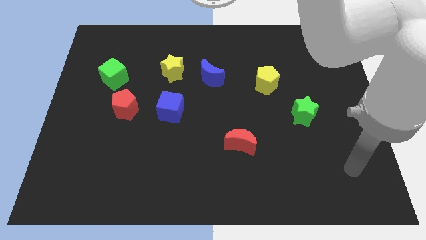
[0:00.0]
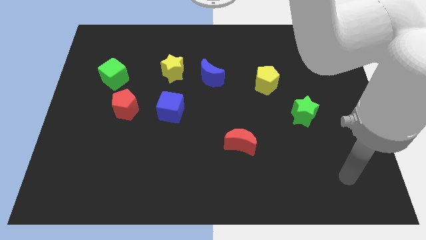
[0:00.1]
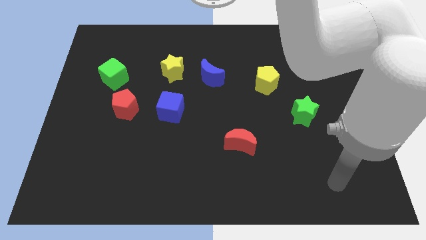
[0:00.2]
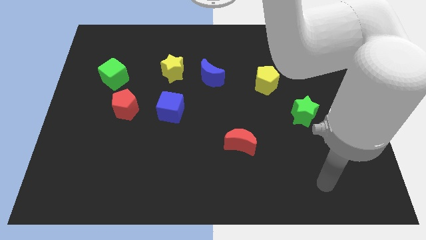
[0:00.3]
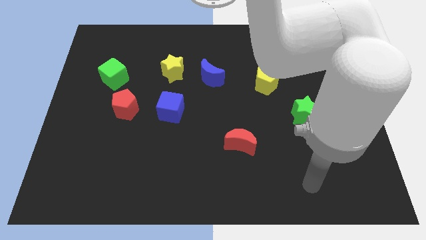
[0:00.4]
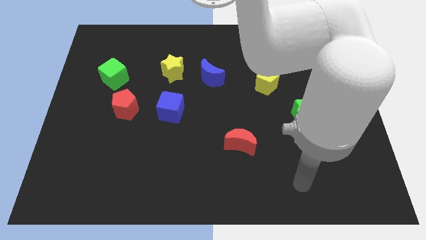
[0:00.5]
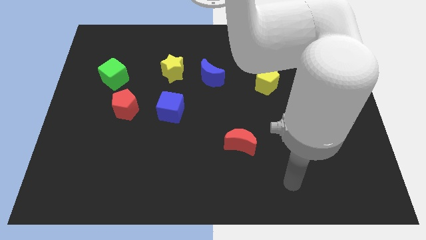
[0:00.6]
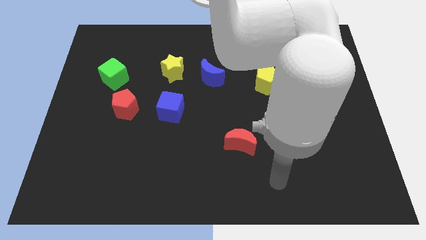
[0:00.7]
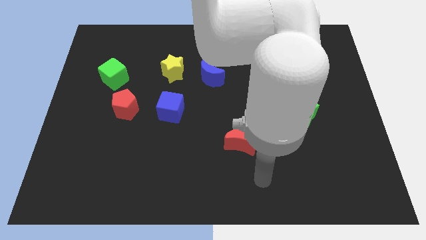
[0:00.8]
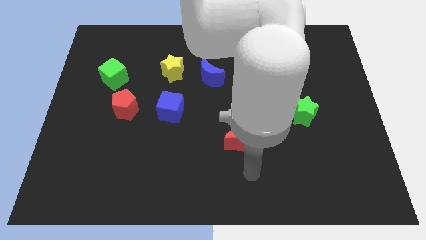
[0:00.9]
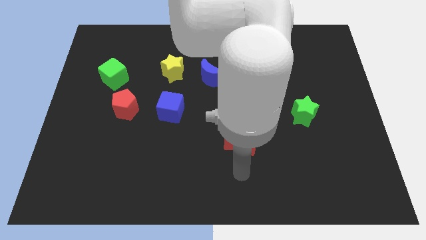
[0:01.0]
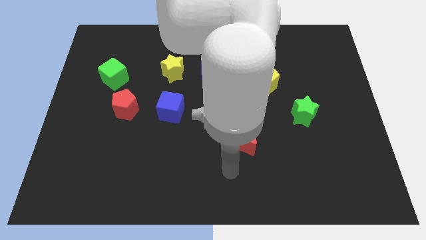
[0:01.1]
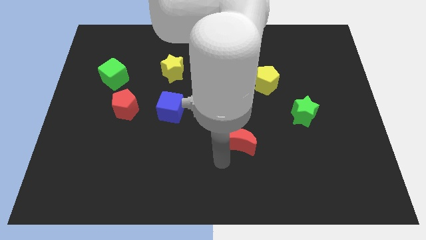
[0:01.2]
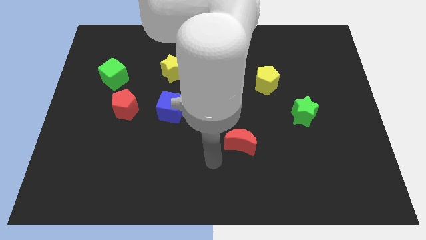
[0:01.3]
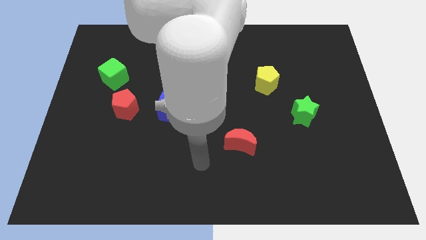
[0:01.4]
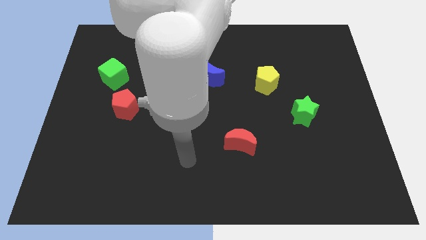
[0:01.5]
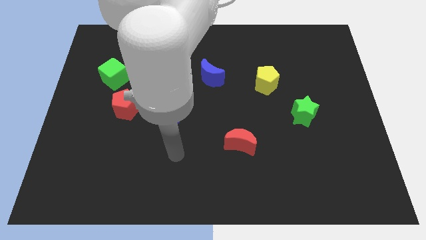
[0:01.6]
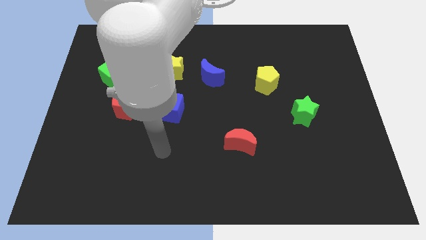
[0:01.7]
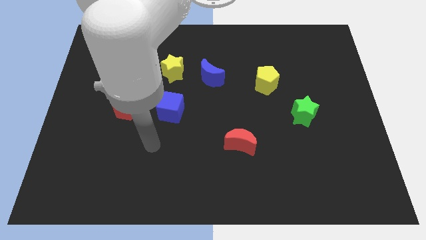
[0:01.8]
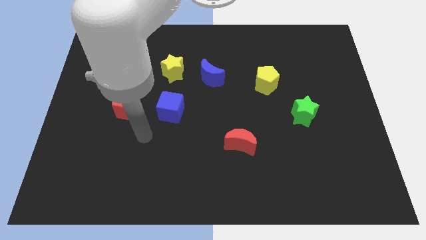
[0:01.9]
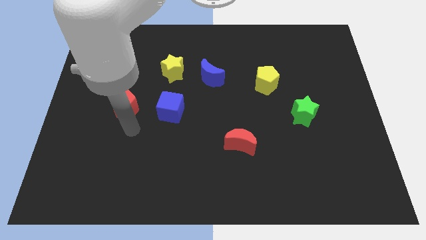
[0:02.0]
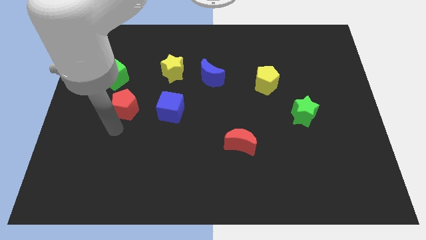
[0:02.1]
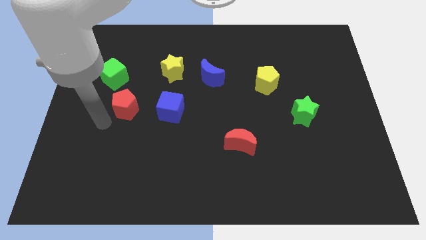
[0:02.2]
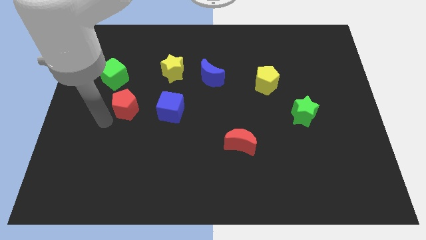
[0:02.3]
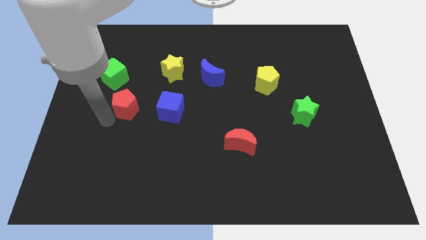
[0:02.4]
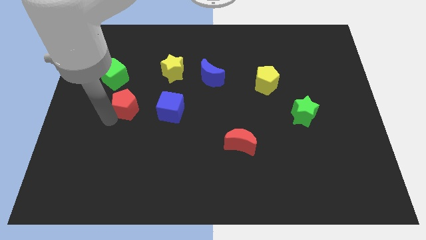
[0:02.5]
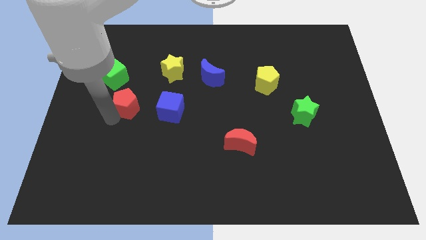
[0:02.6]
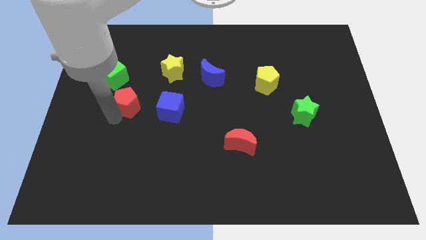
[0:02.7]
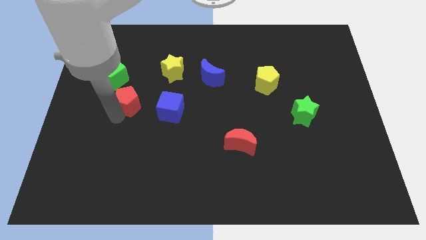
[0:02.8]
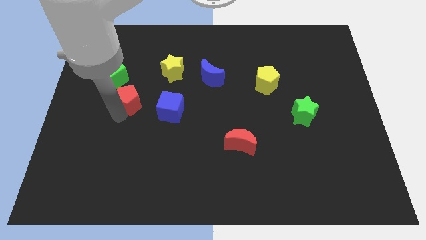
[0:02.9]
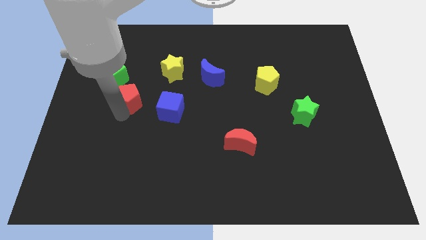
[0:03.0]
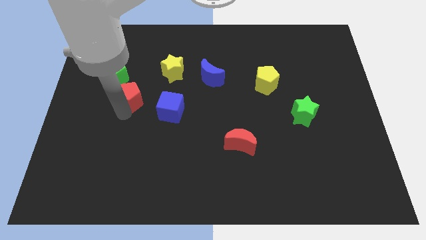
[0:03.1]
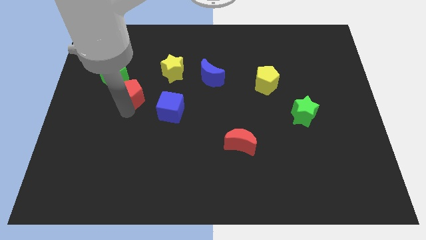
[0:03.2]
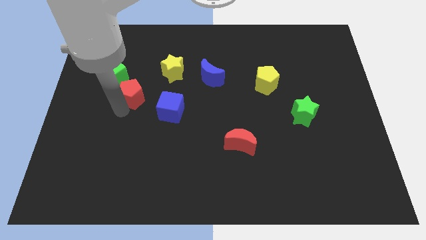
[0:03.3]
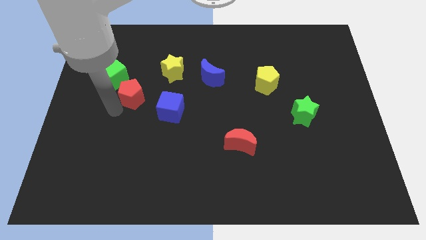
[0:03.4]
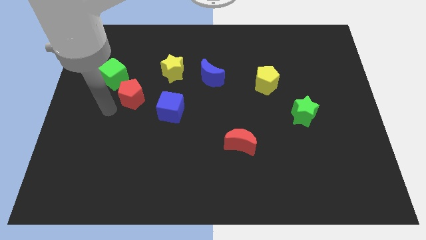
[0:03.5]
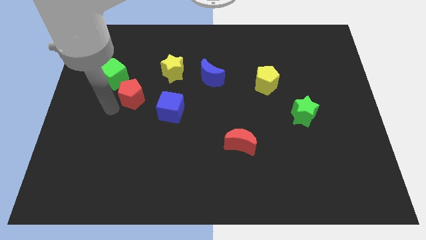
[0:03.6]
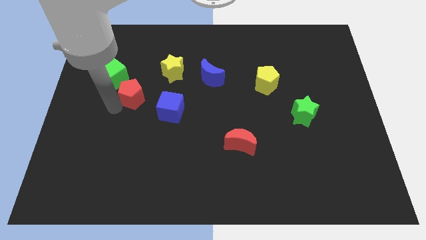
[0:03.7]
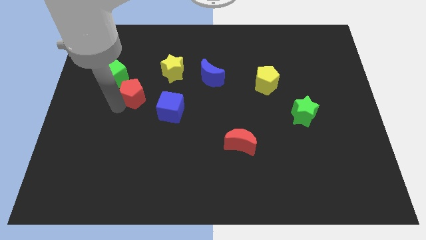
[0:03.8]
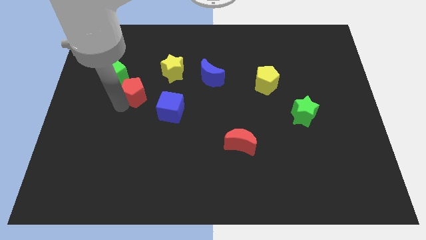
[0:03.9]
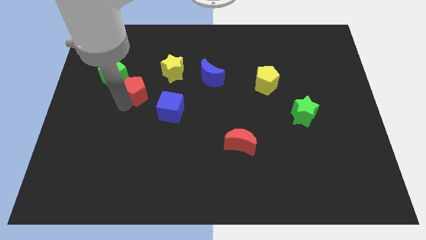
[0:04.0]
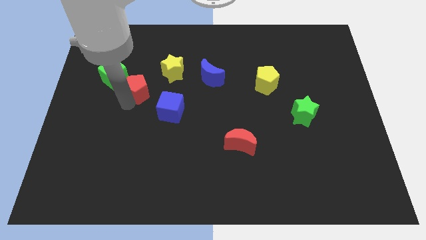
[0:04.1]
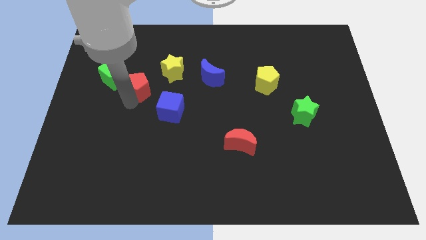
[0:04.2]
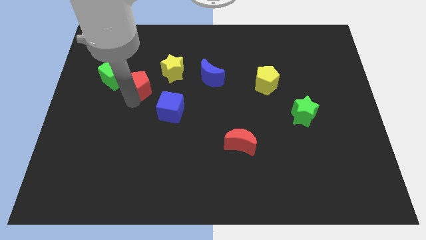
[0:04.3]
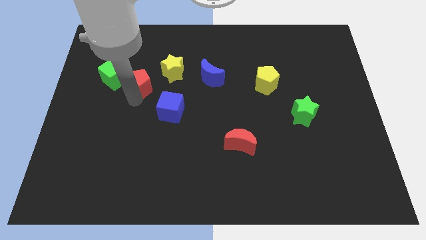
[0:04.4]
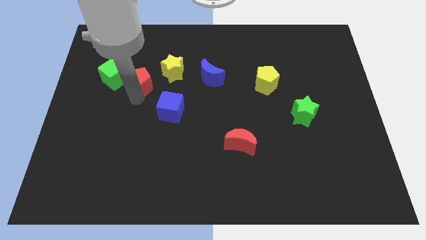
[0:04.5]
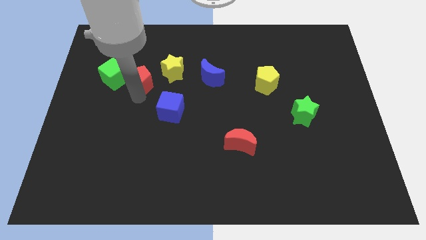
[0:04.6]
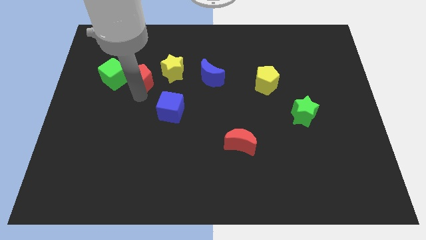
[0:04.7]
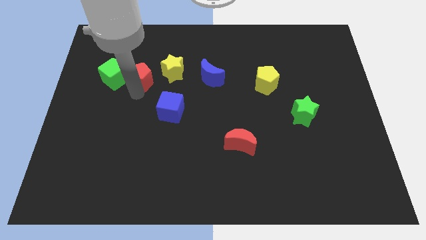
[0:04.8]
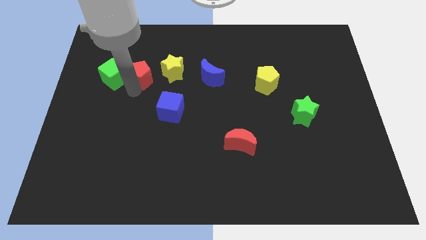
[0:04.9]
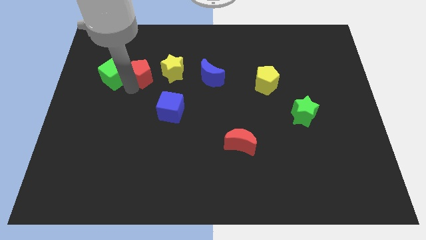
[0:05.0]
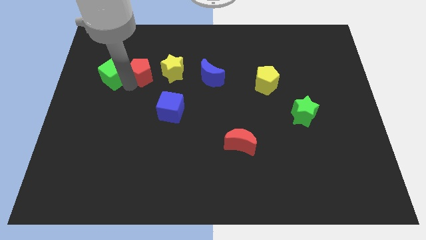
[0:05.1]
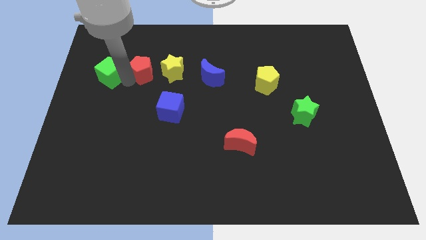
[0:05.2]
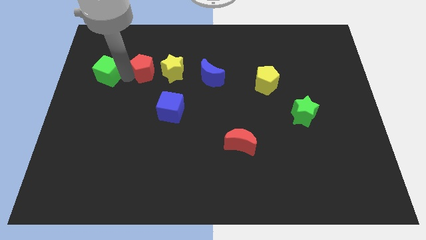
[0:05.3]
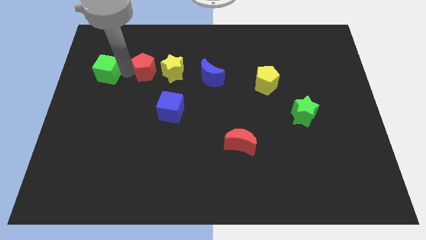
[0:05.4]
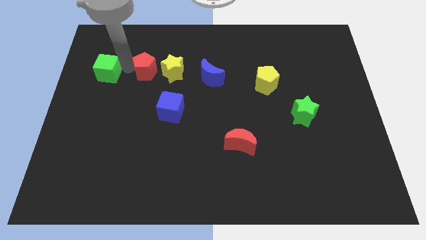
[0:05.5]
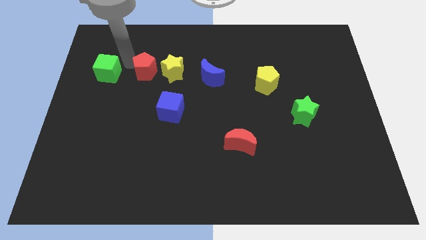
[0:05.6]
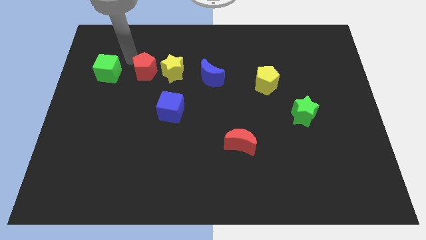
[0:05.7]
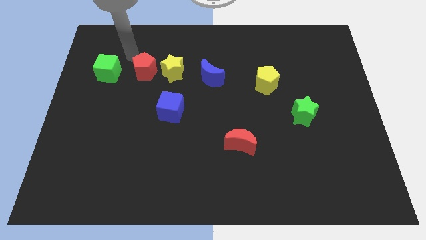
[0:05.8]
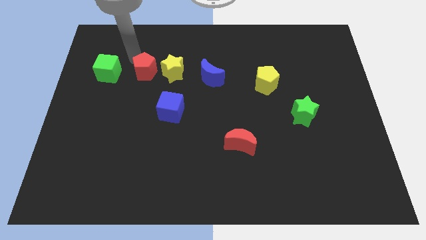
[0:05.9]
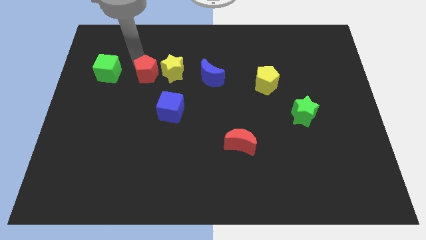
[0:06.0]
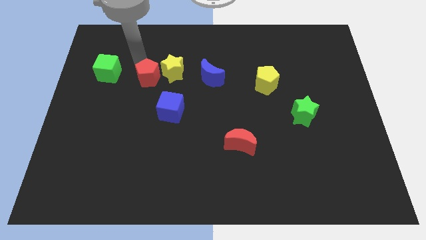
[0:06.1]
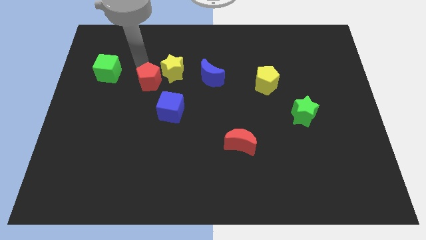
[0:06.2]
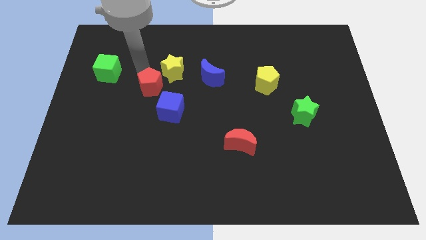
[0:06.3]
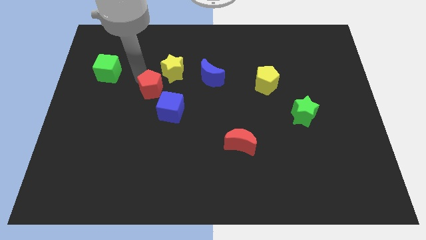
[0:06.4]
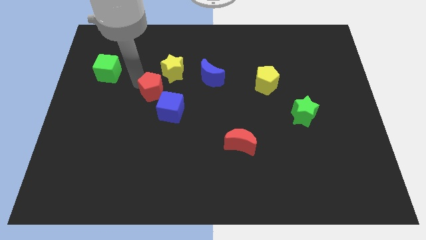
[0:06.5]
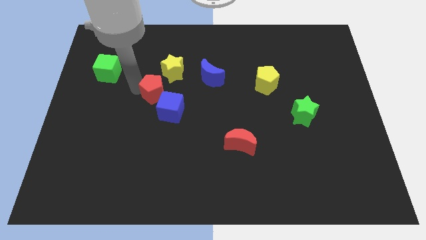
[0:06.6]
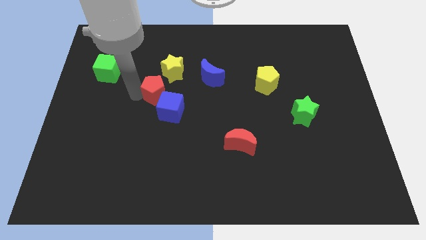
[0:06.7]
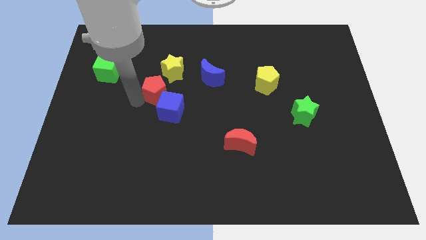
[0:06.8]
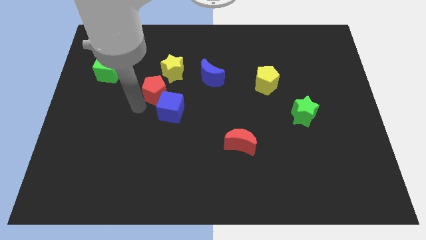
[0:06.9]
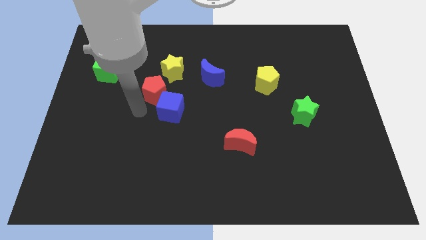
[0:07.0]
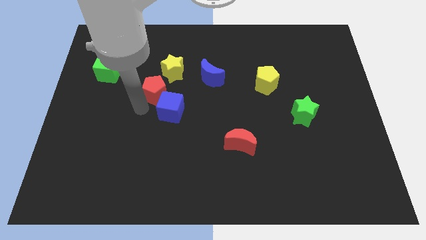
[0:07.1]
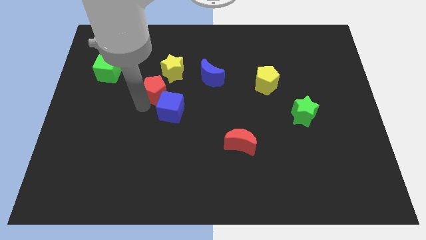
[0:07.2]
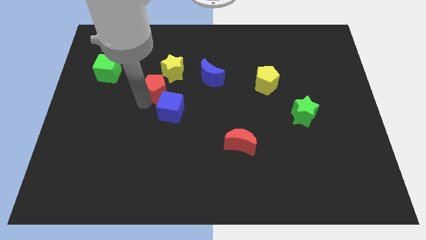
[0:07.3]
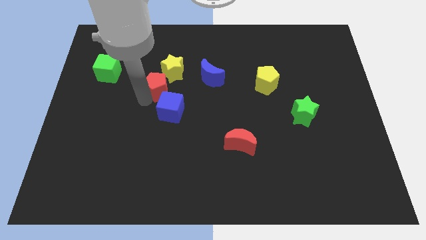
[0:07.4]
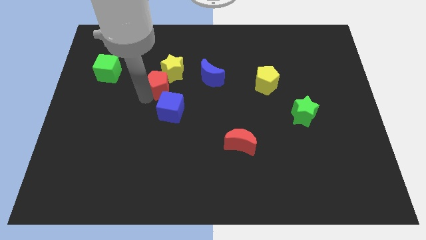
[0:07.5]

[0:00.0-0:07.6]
put the red pentagon next to the yellow star
